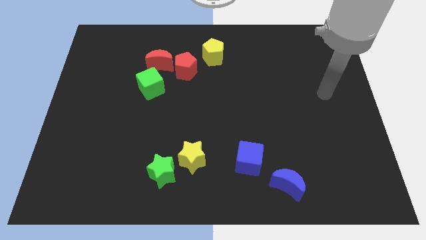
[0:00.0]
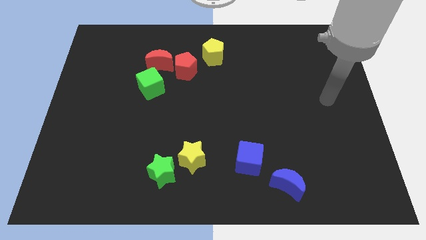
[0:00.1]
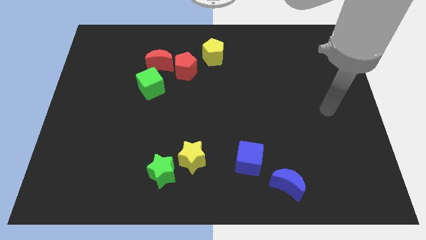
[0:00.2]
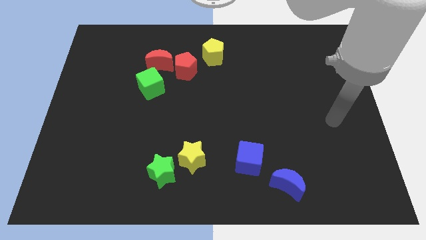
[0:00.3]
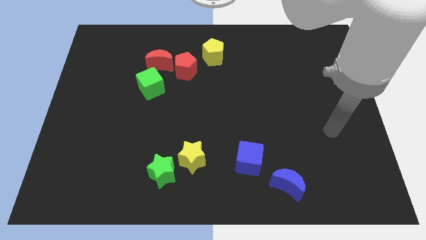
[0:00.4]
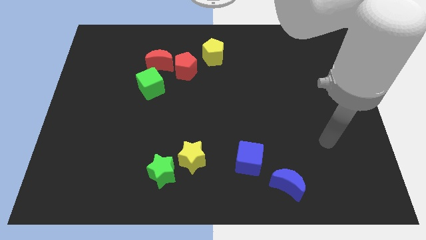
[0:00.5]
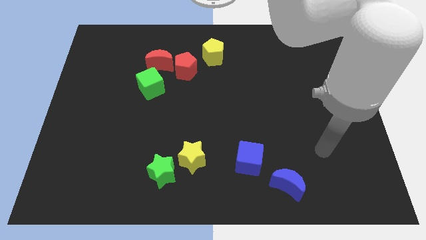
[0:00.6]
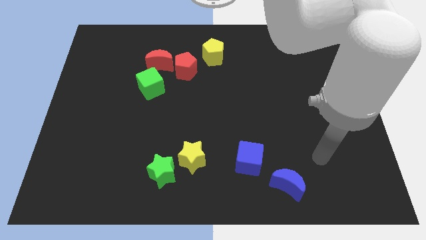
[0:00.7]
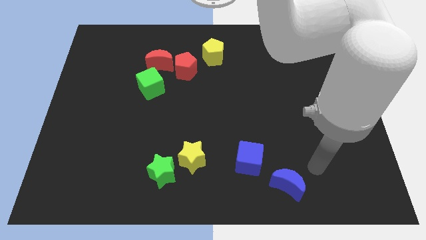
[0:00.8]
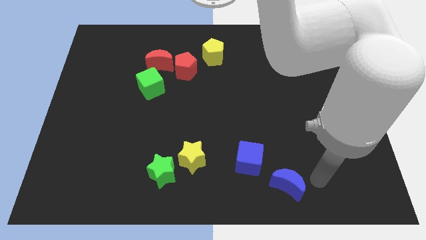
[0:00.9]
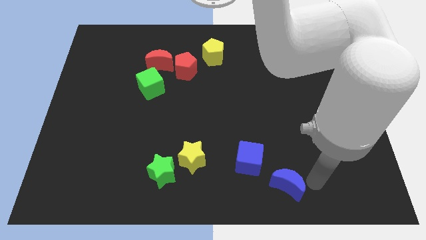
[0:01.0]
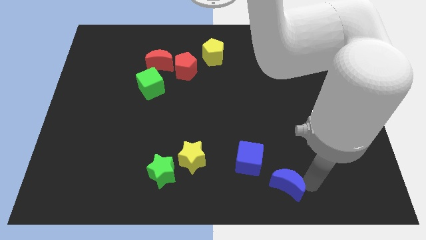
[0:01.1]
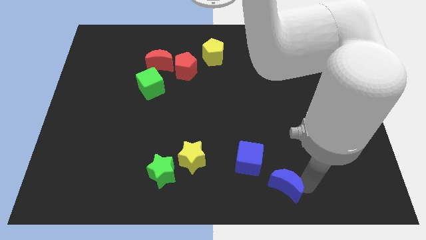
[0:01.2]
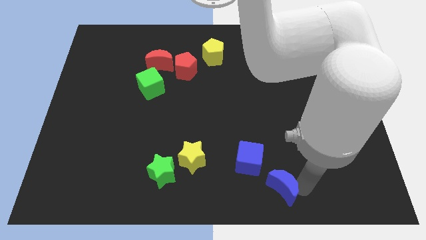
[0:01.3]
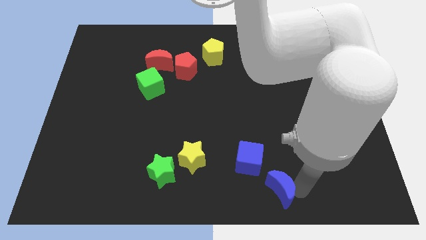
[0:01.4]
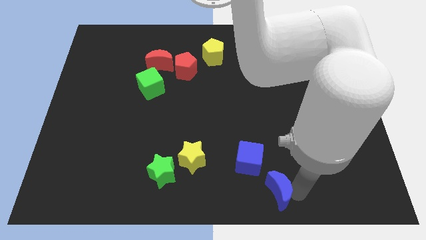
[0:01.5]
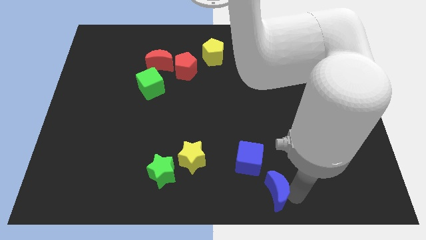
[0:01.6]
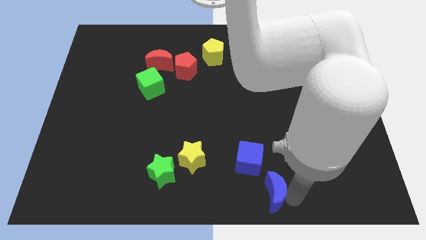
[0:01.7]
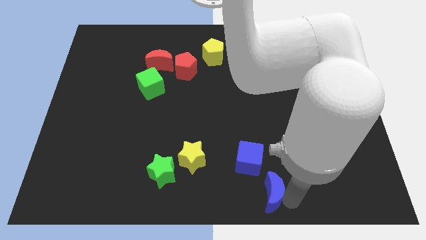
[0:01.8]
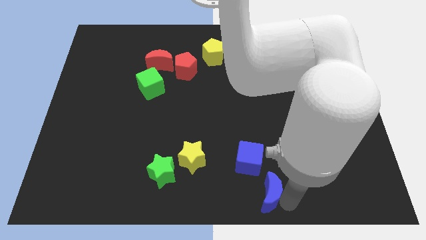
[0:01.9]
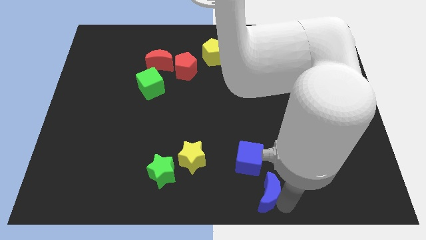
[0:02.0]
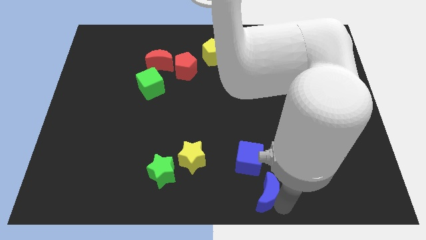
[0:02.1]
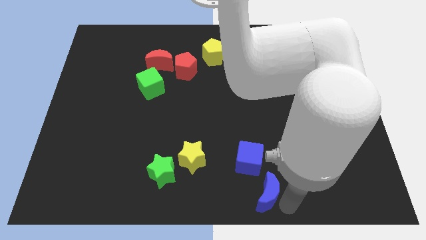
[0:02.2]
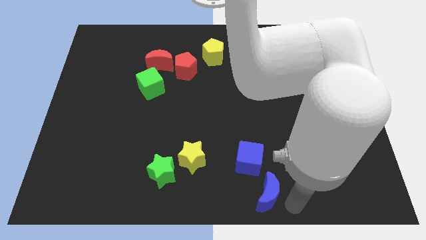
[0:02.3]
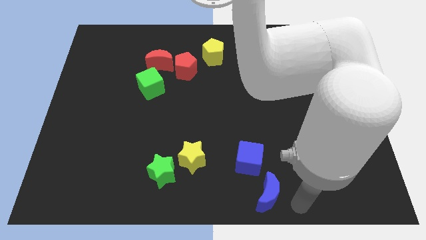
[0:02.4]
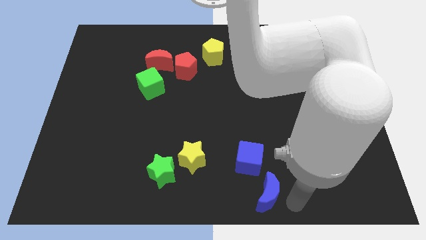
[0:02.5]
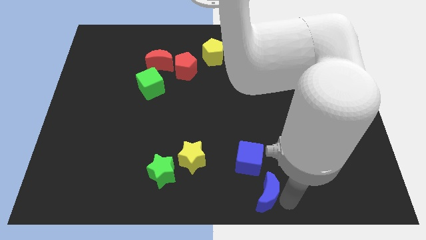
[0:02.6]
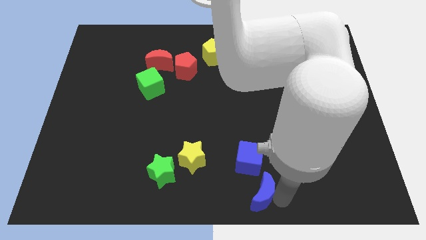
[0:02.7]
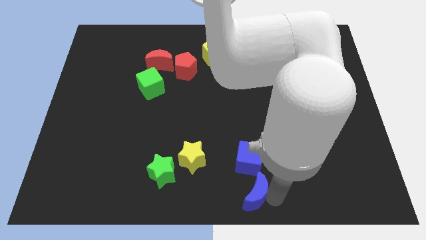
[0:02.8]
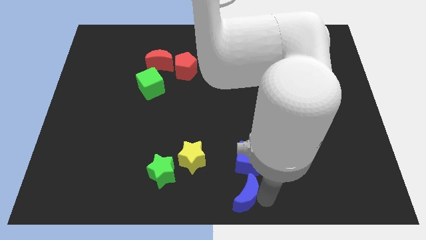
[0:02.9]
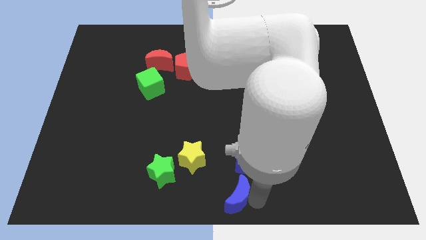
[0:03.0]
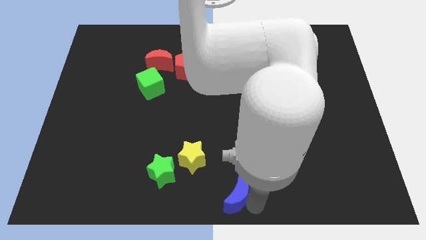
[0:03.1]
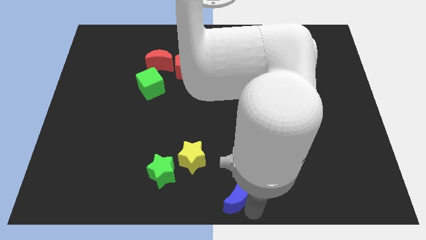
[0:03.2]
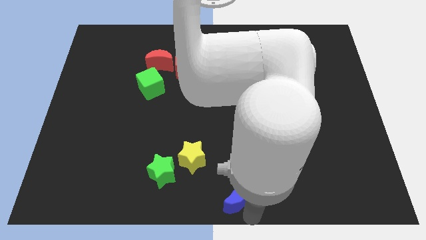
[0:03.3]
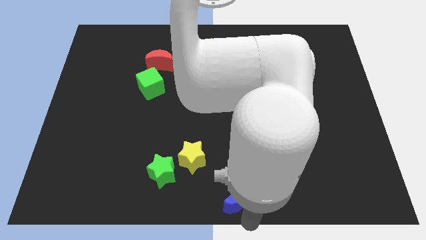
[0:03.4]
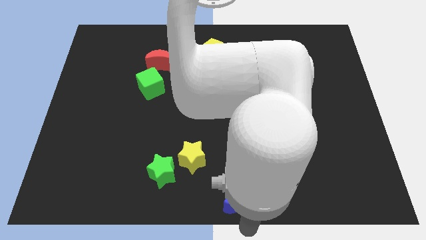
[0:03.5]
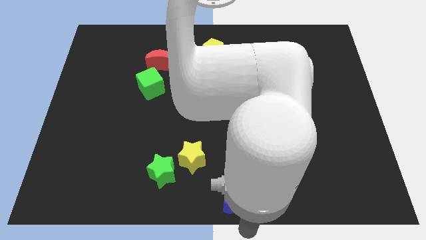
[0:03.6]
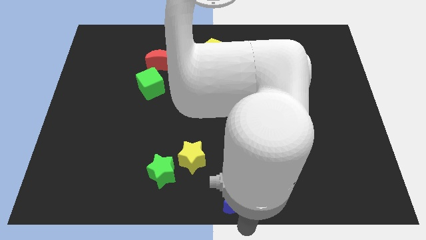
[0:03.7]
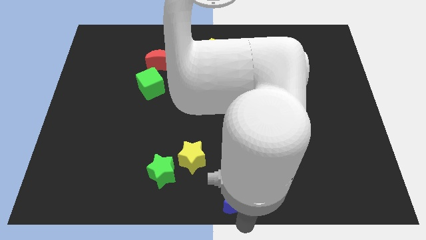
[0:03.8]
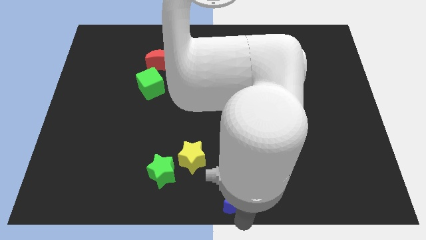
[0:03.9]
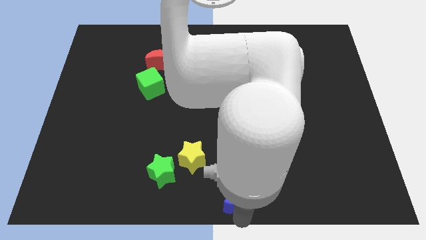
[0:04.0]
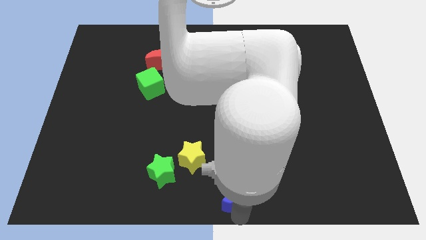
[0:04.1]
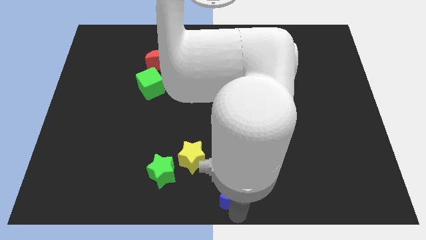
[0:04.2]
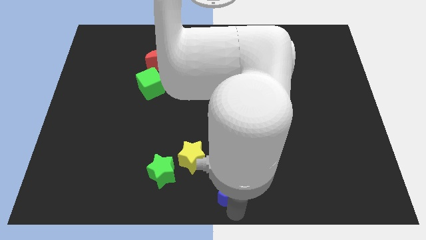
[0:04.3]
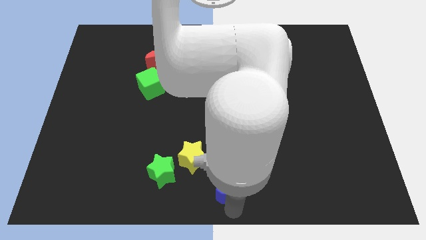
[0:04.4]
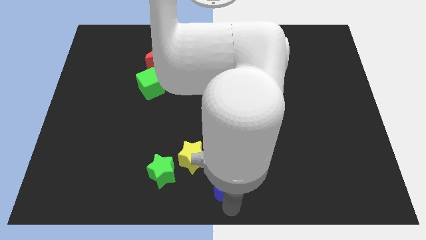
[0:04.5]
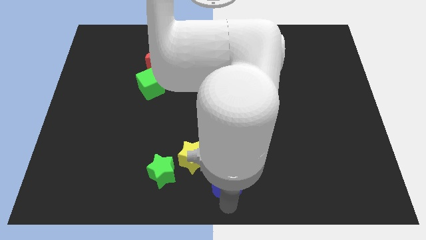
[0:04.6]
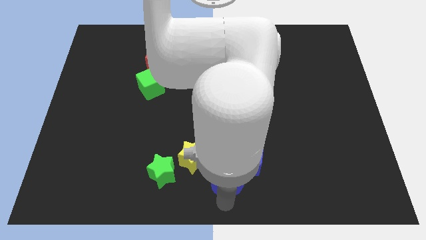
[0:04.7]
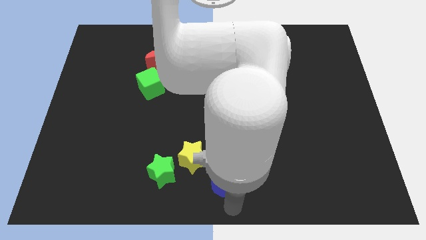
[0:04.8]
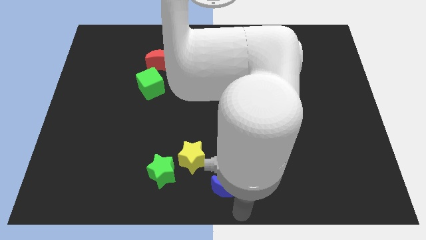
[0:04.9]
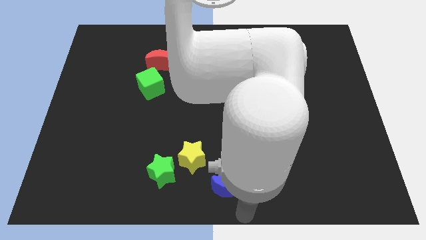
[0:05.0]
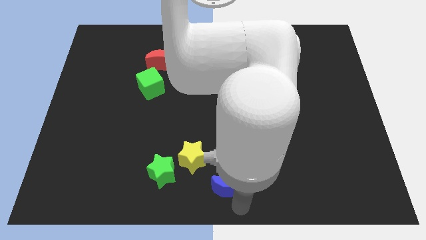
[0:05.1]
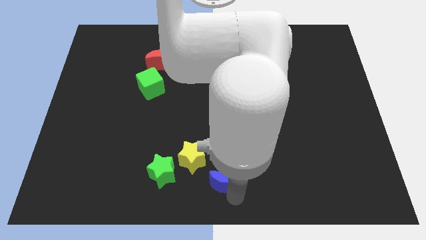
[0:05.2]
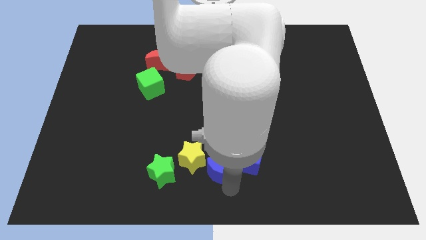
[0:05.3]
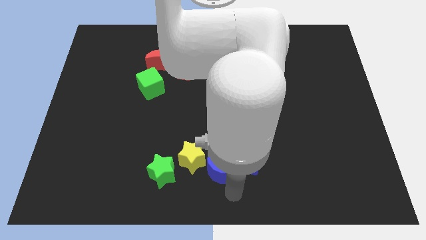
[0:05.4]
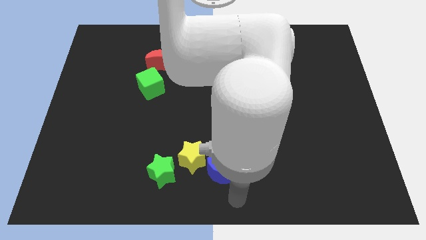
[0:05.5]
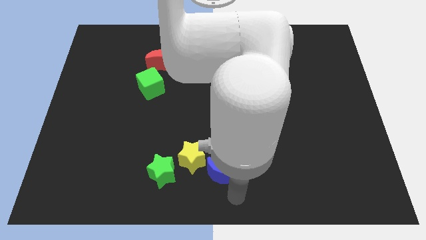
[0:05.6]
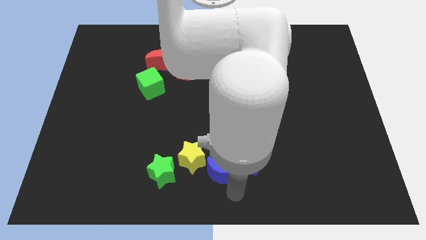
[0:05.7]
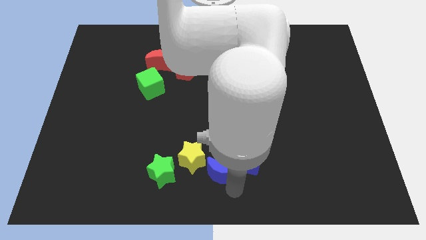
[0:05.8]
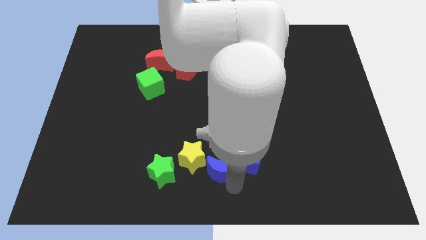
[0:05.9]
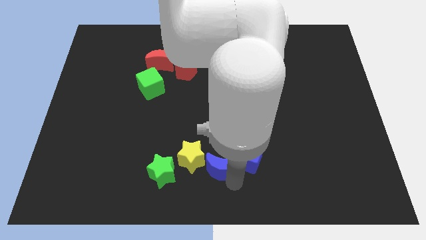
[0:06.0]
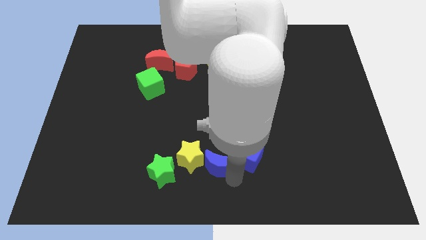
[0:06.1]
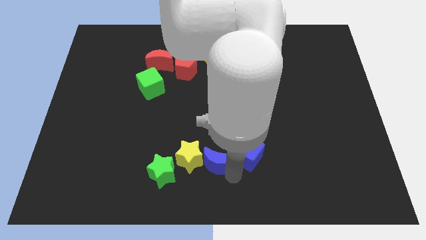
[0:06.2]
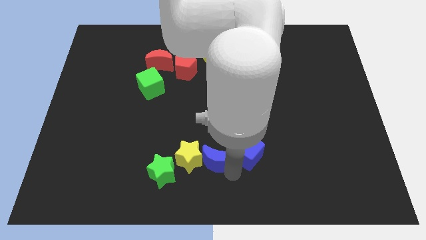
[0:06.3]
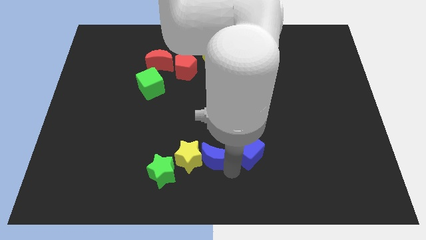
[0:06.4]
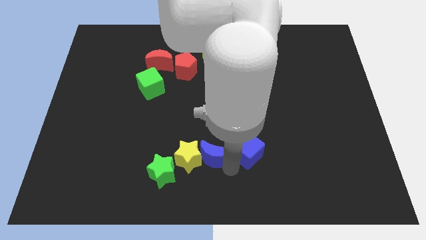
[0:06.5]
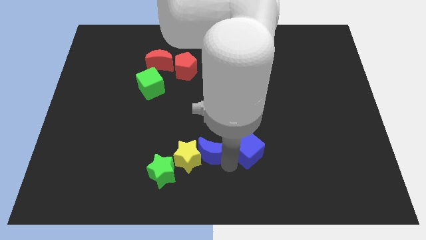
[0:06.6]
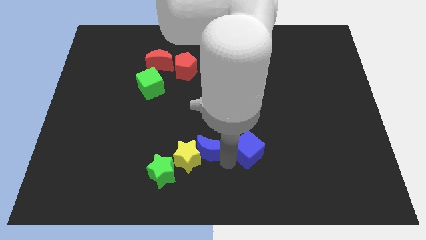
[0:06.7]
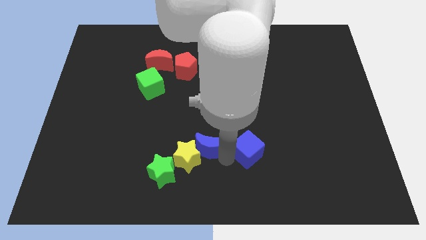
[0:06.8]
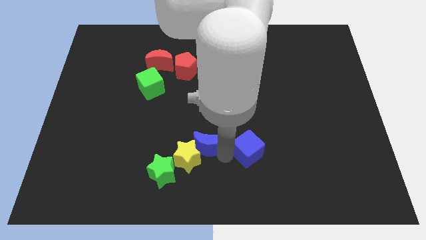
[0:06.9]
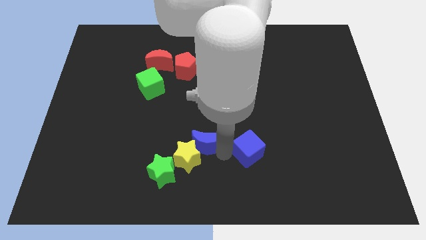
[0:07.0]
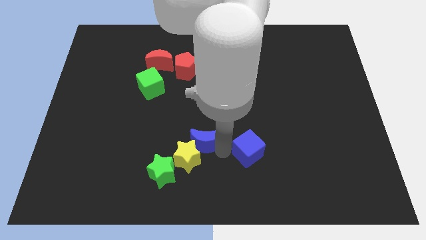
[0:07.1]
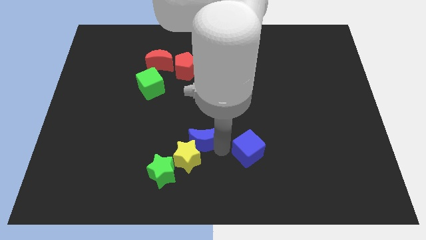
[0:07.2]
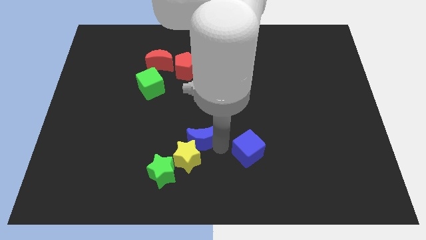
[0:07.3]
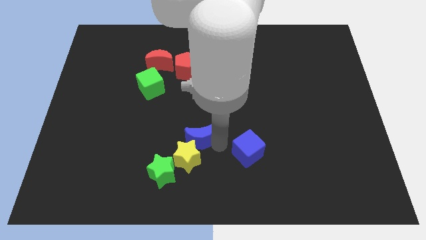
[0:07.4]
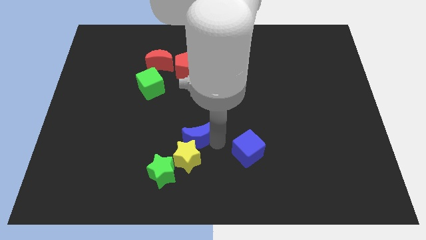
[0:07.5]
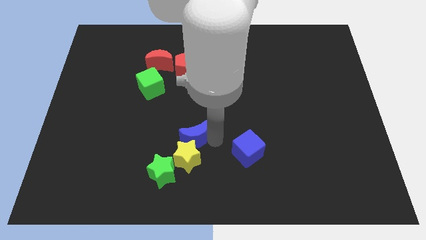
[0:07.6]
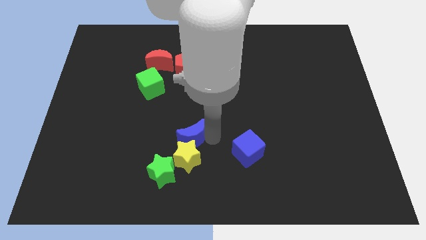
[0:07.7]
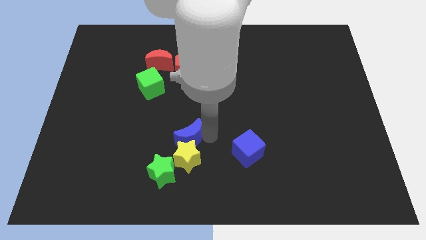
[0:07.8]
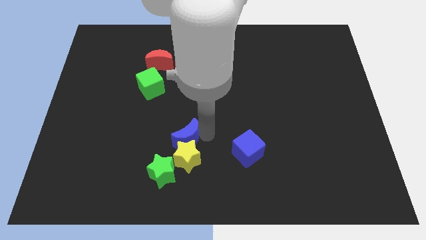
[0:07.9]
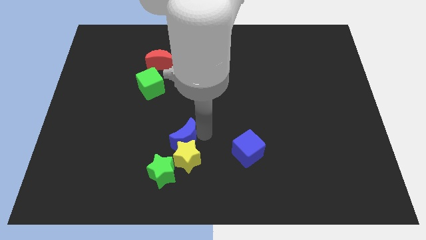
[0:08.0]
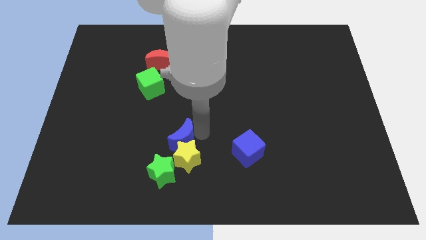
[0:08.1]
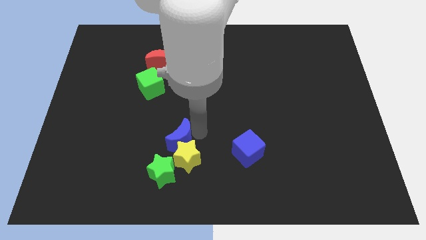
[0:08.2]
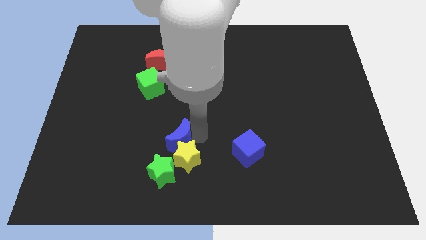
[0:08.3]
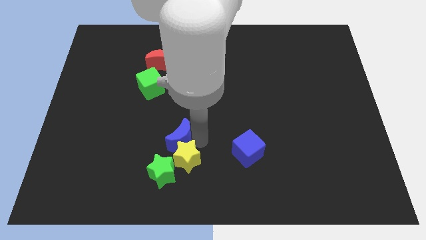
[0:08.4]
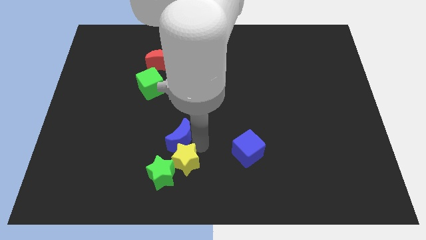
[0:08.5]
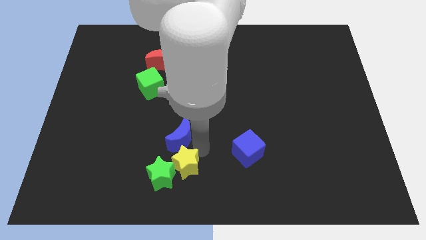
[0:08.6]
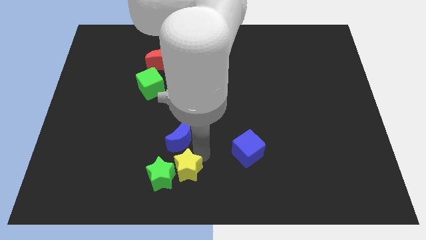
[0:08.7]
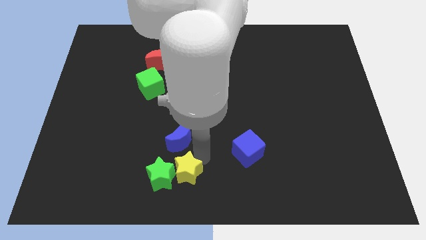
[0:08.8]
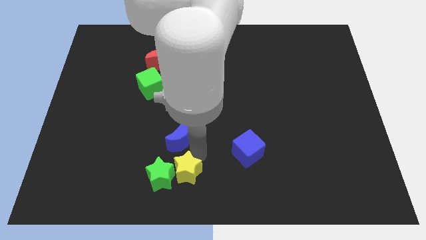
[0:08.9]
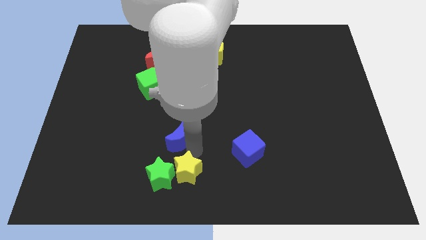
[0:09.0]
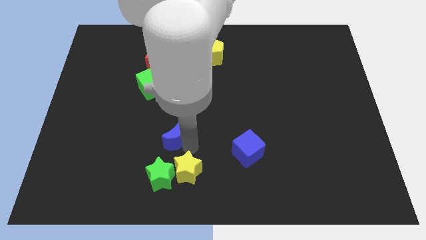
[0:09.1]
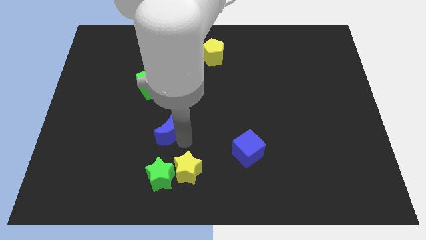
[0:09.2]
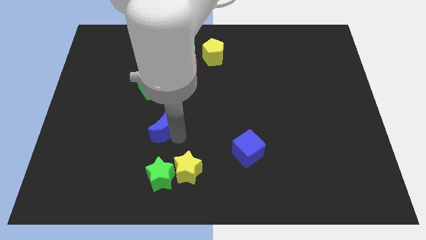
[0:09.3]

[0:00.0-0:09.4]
slide the blue moon below the green cube
